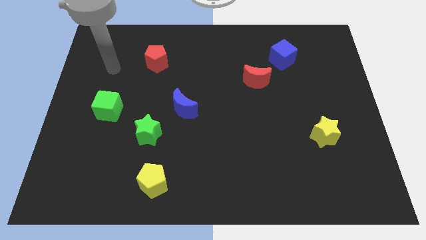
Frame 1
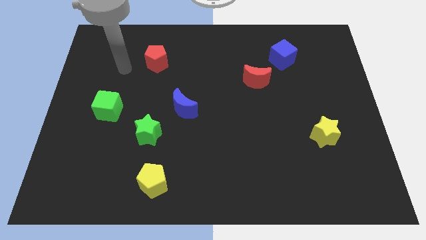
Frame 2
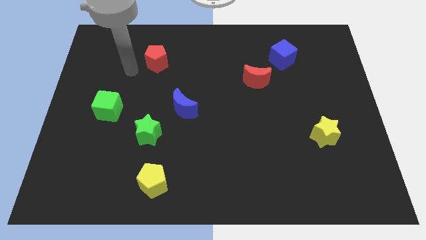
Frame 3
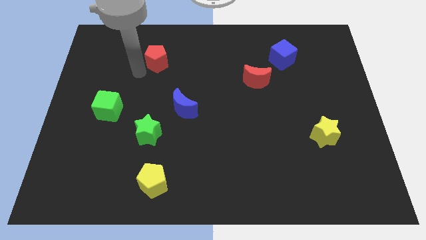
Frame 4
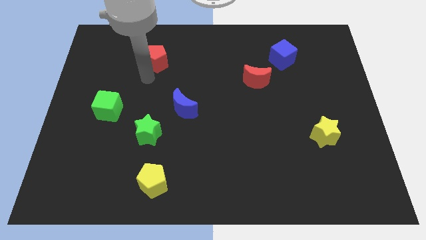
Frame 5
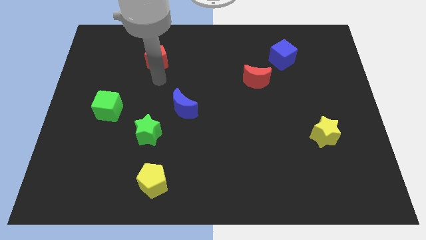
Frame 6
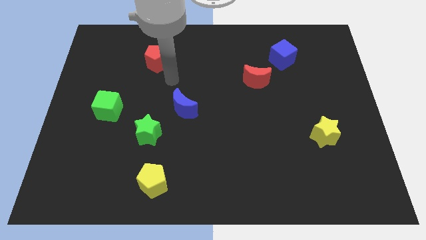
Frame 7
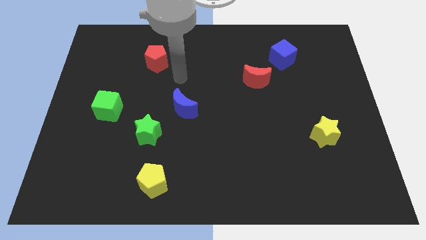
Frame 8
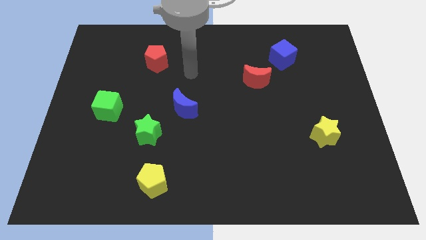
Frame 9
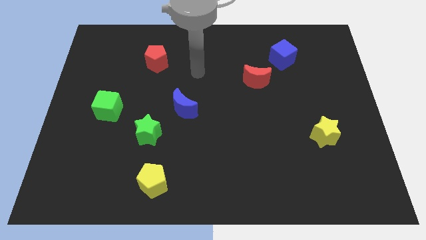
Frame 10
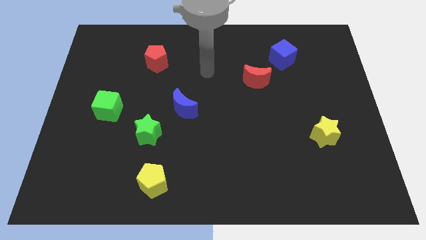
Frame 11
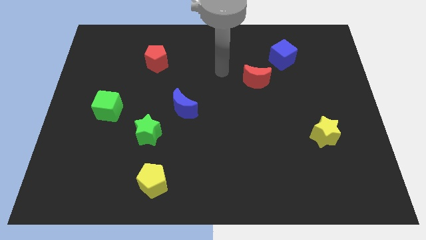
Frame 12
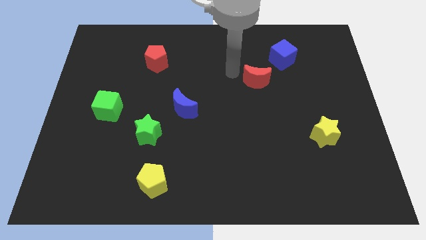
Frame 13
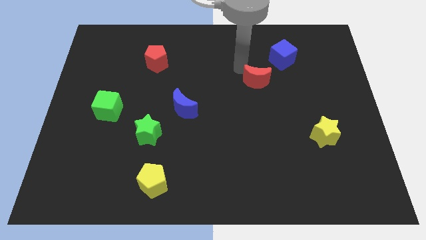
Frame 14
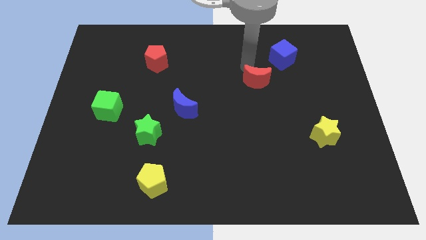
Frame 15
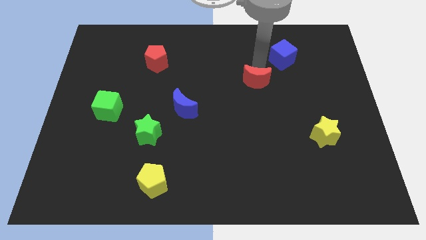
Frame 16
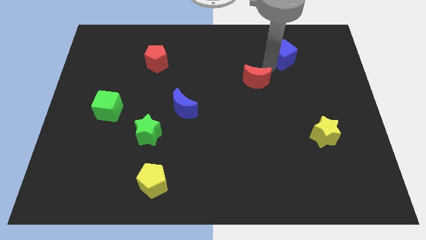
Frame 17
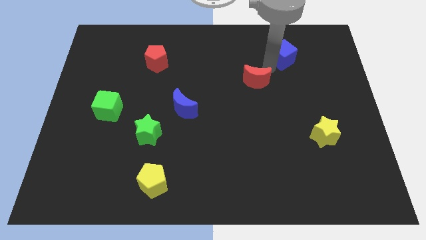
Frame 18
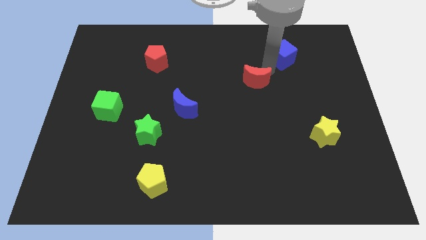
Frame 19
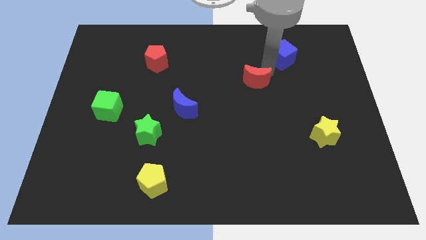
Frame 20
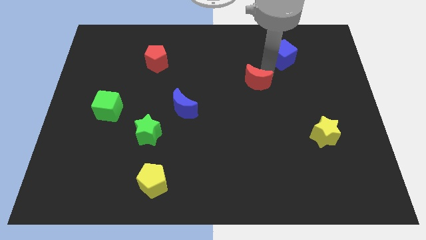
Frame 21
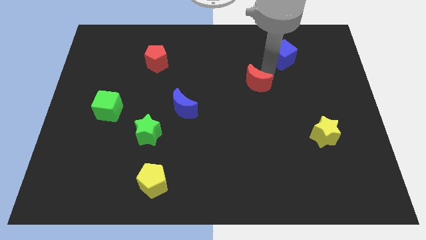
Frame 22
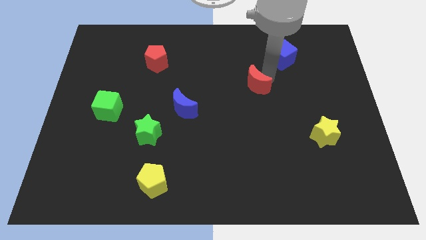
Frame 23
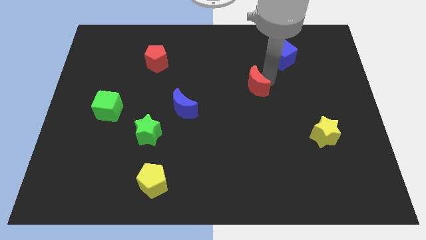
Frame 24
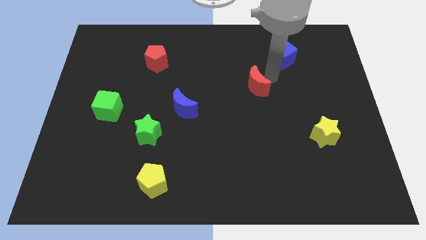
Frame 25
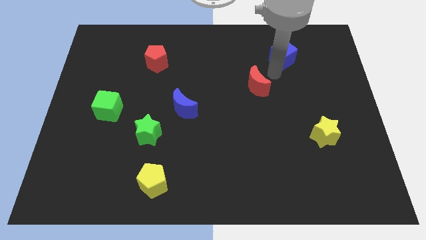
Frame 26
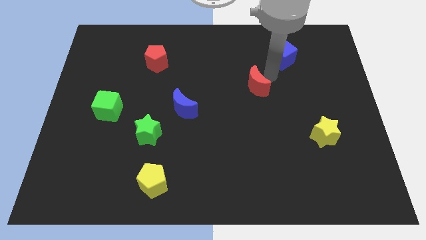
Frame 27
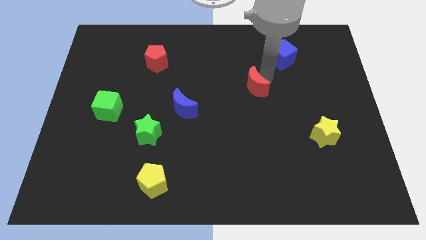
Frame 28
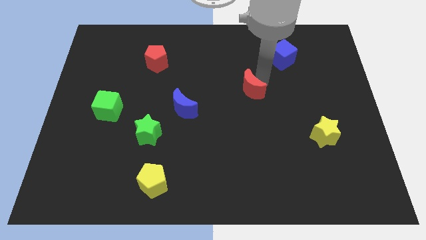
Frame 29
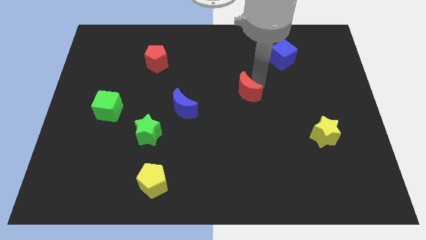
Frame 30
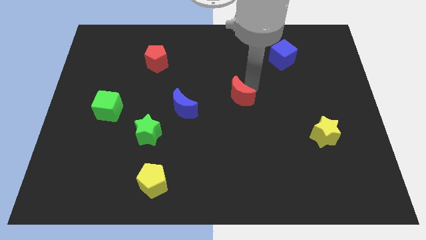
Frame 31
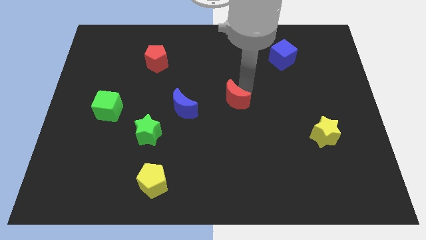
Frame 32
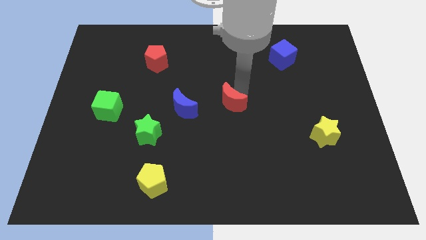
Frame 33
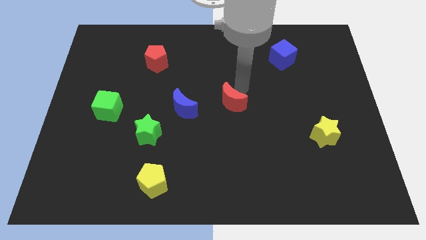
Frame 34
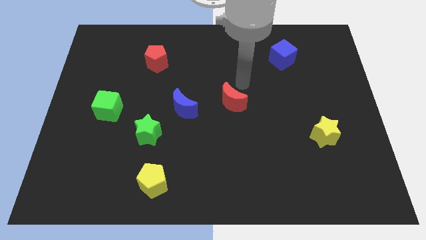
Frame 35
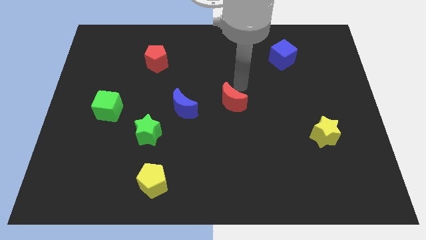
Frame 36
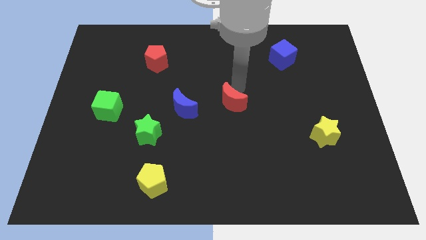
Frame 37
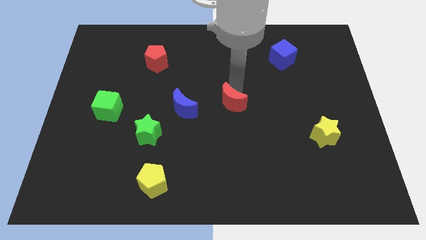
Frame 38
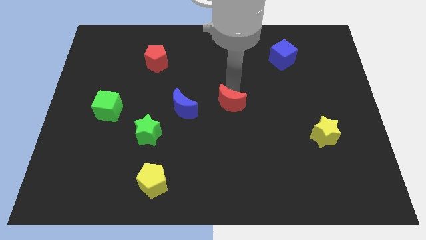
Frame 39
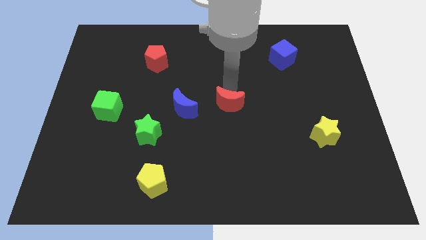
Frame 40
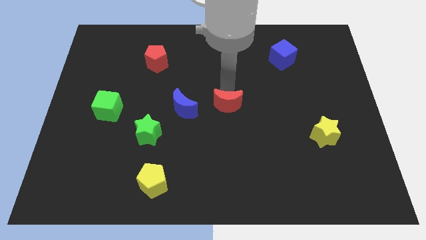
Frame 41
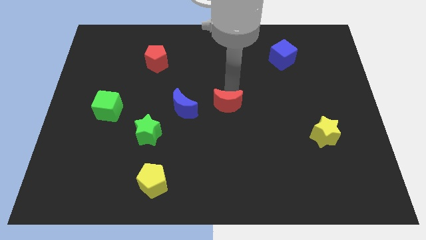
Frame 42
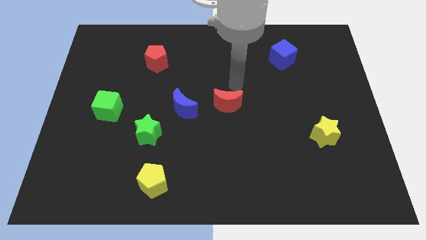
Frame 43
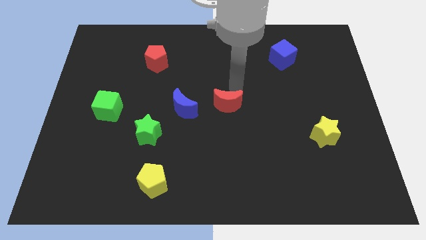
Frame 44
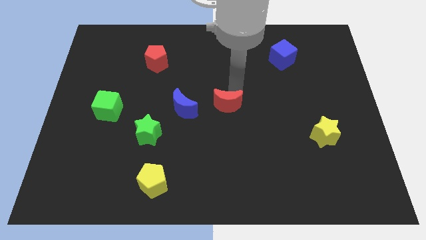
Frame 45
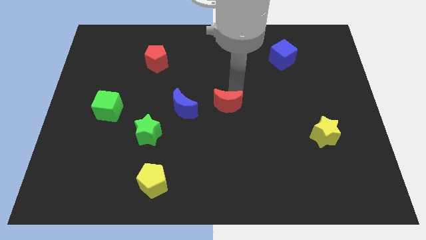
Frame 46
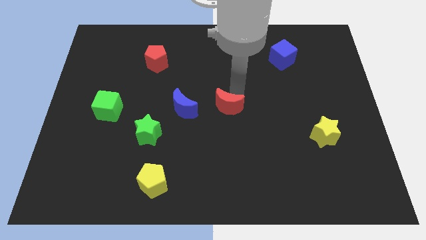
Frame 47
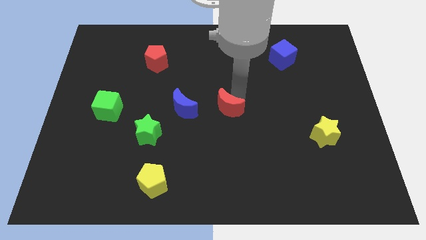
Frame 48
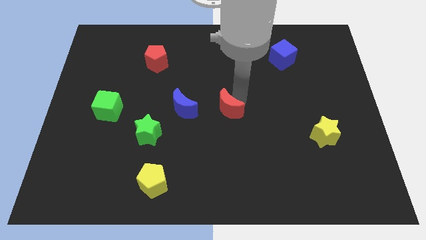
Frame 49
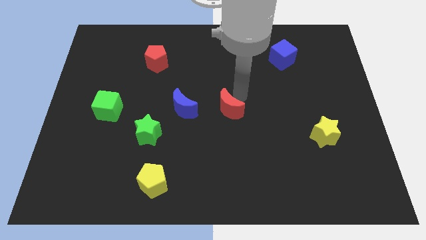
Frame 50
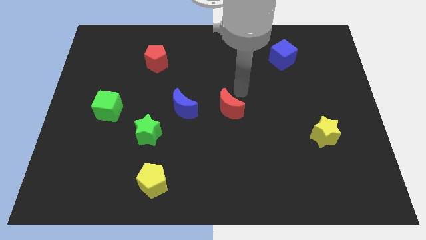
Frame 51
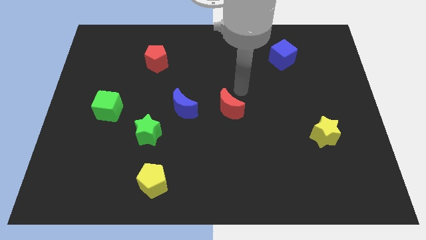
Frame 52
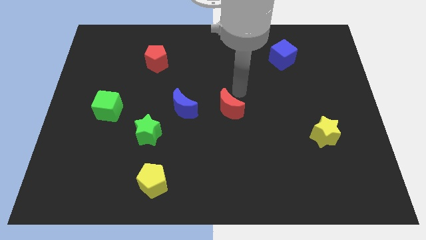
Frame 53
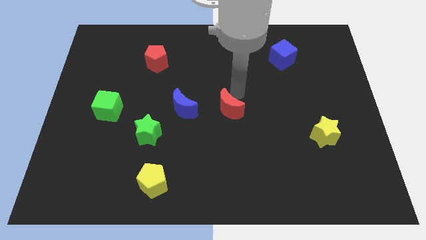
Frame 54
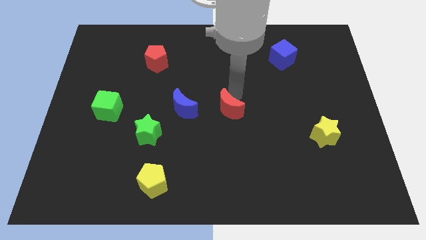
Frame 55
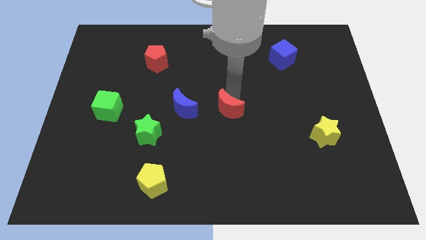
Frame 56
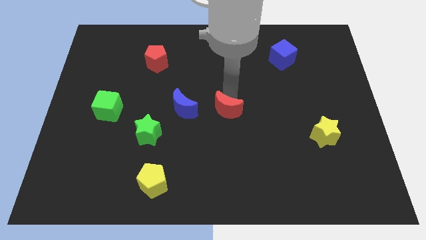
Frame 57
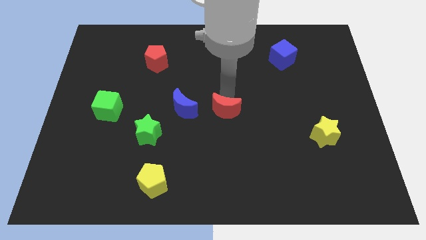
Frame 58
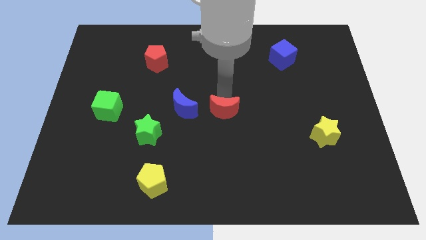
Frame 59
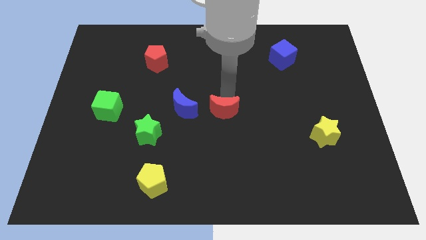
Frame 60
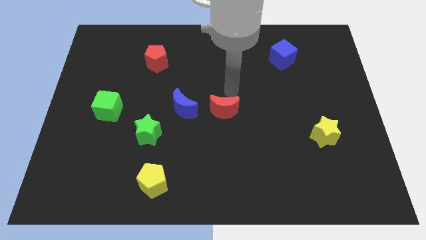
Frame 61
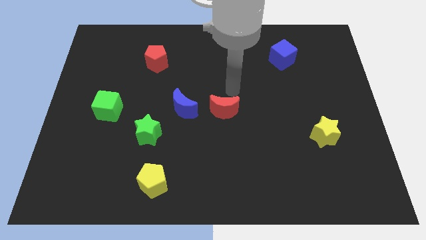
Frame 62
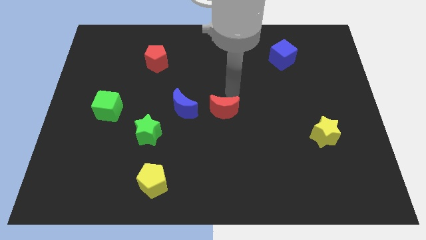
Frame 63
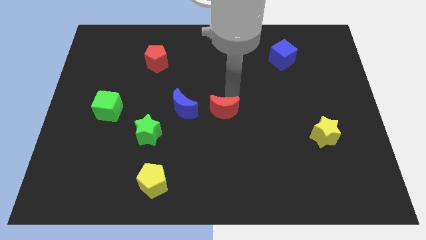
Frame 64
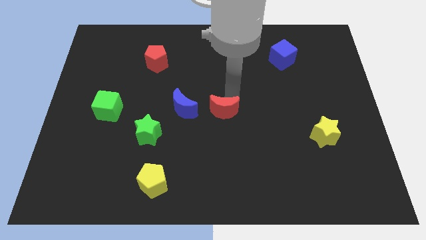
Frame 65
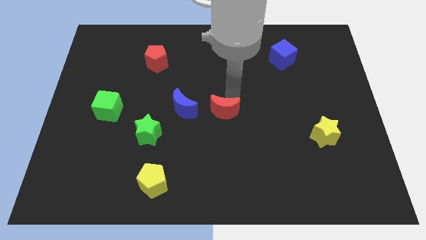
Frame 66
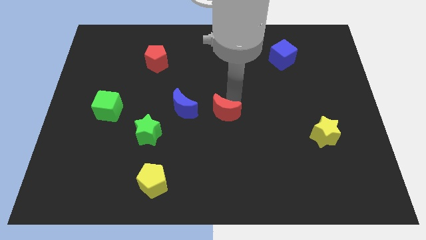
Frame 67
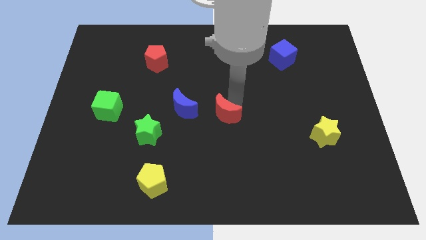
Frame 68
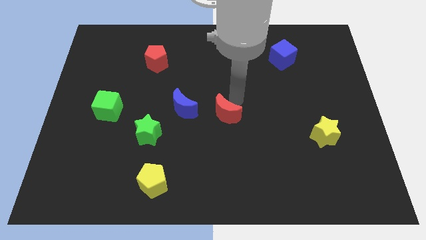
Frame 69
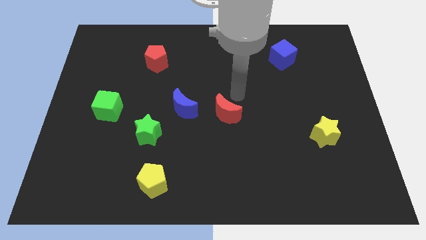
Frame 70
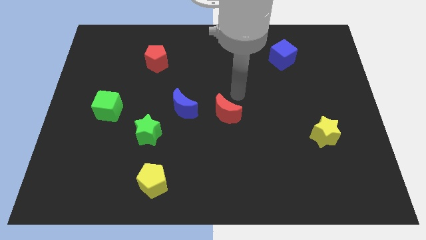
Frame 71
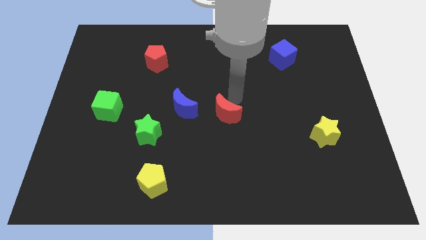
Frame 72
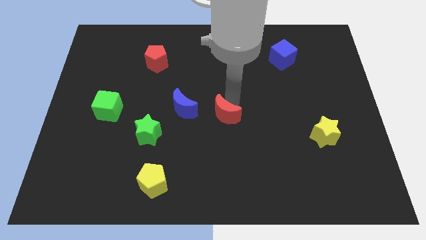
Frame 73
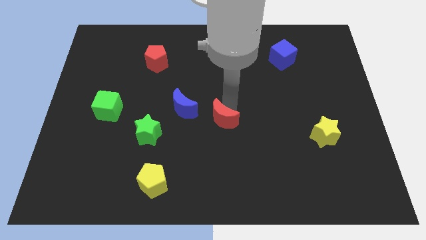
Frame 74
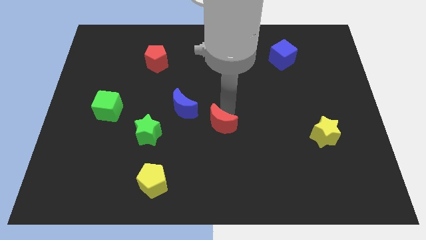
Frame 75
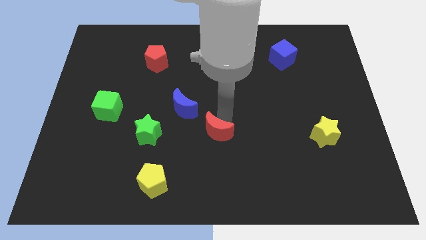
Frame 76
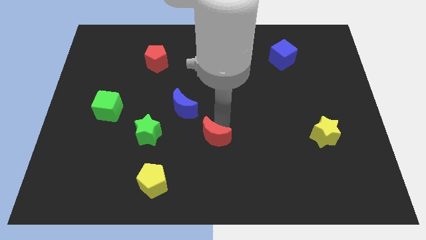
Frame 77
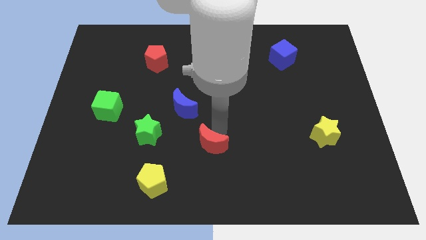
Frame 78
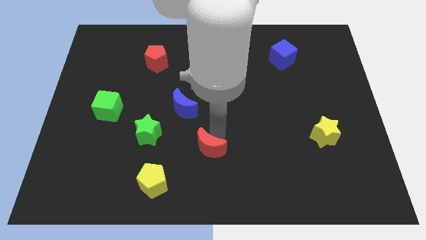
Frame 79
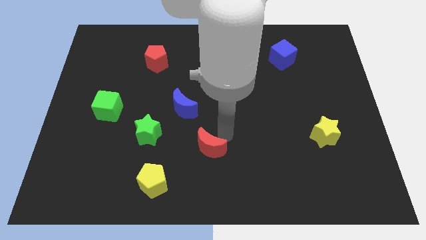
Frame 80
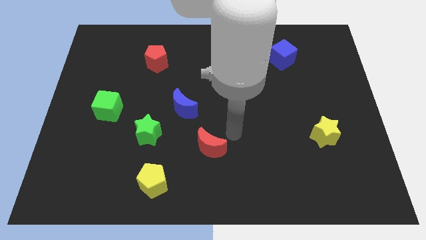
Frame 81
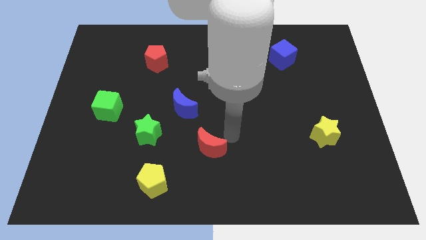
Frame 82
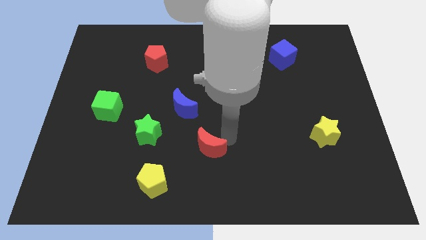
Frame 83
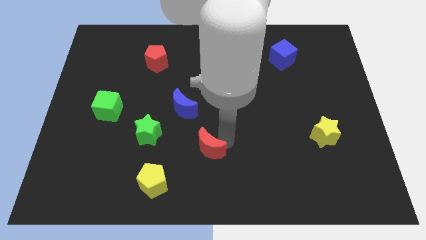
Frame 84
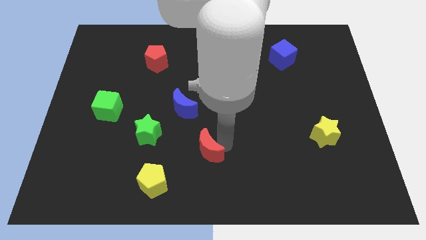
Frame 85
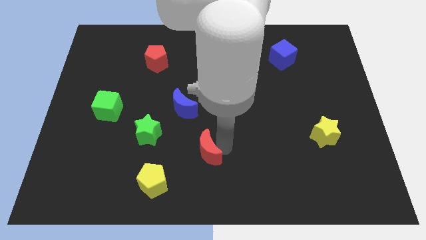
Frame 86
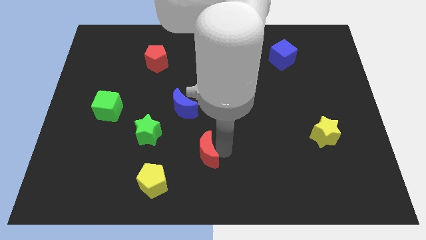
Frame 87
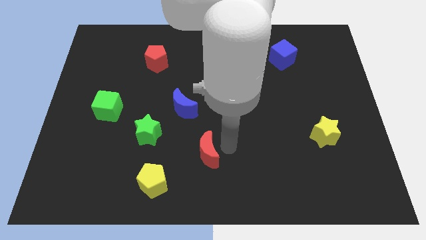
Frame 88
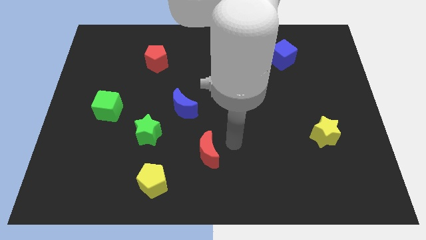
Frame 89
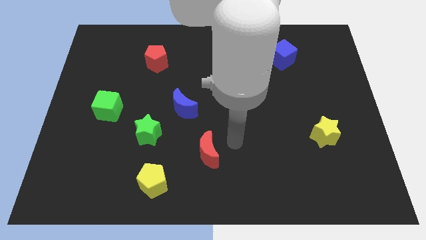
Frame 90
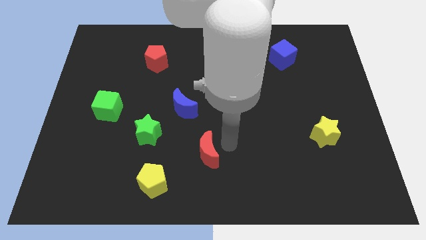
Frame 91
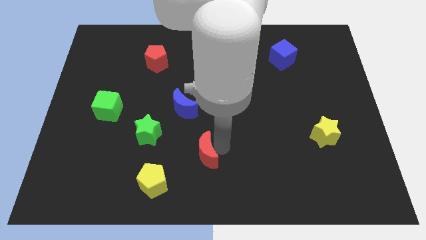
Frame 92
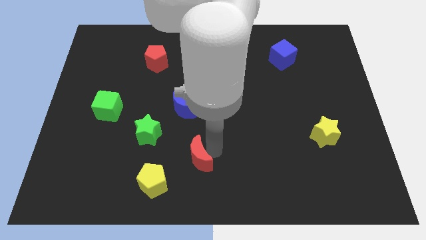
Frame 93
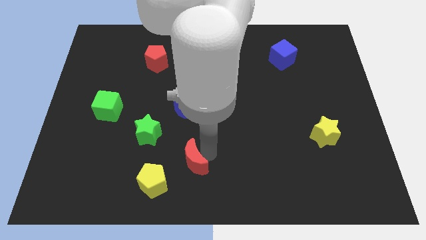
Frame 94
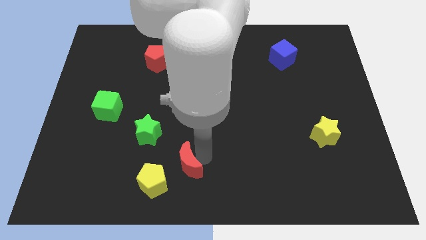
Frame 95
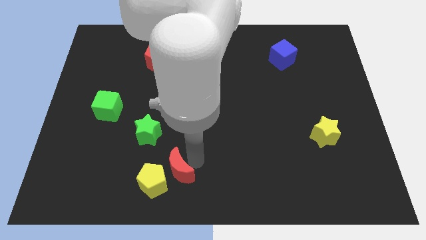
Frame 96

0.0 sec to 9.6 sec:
move the red moon to the yellow pentagon
